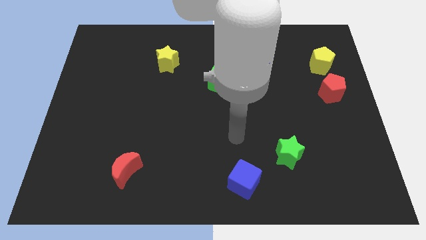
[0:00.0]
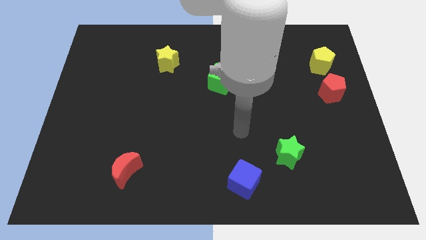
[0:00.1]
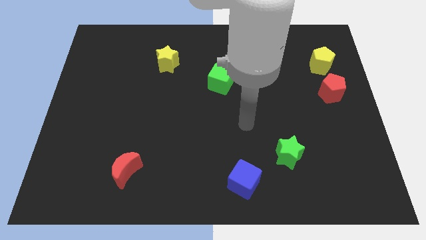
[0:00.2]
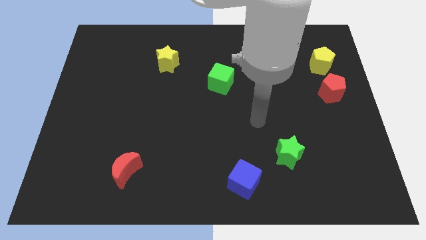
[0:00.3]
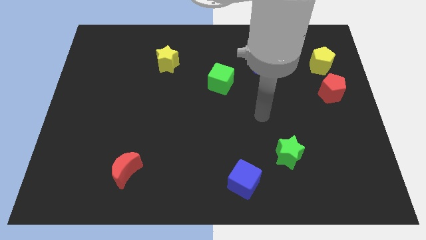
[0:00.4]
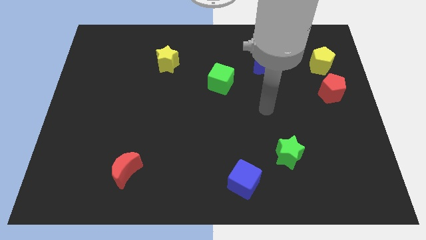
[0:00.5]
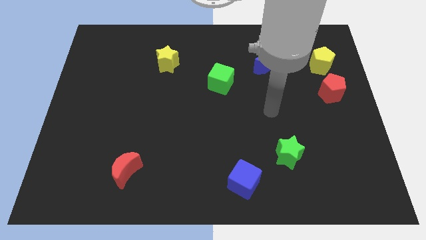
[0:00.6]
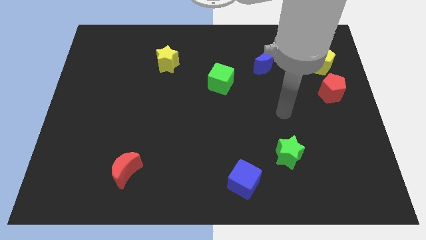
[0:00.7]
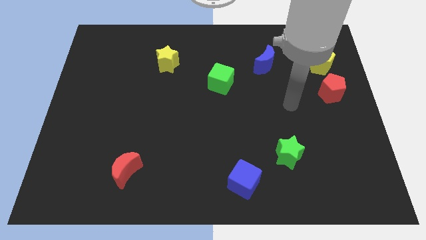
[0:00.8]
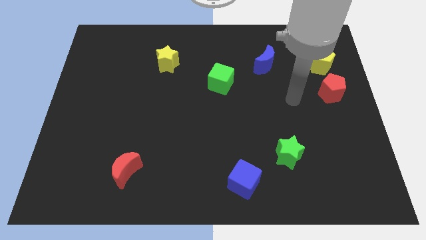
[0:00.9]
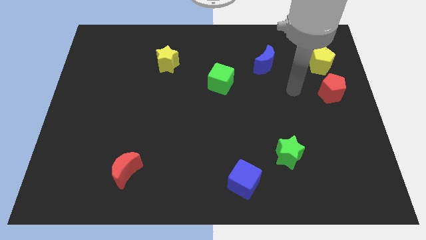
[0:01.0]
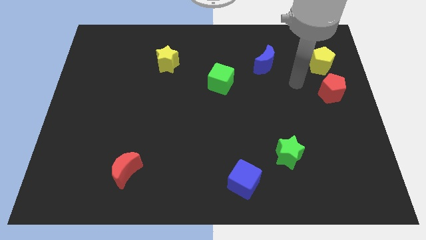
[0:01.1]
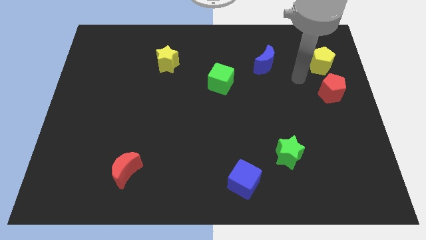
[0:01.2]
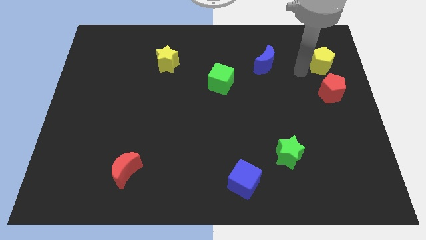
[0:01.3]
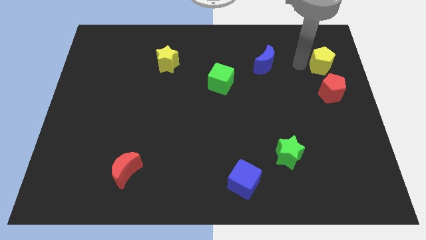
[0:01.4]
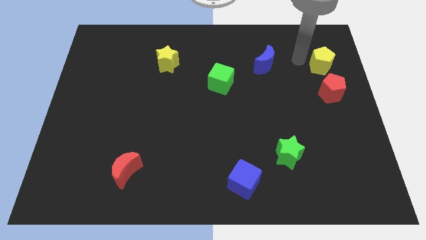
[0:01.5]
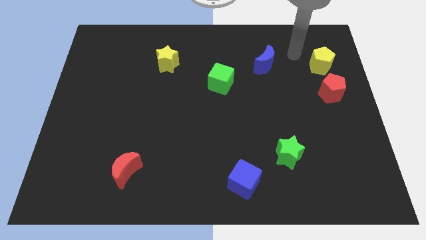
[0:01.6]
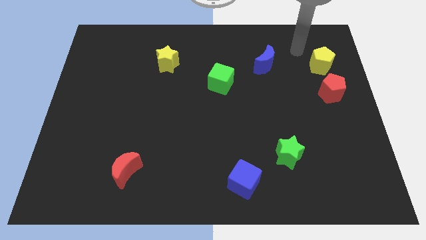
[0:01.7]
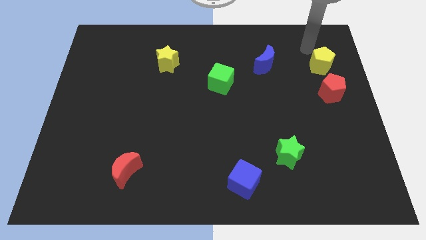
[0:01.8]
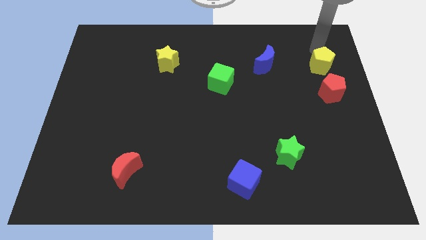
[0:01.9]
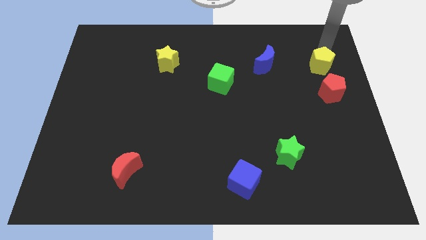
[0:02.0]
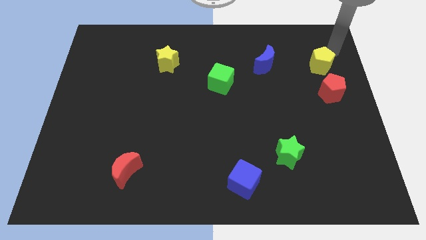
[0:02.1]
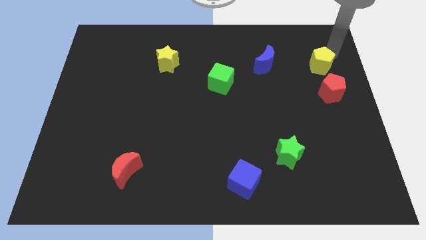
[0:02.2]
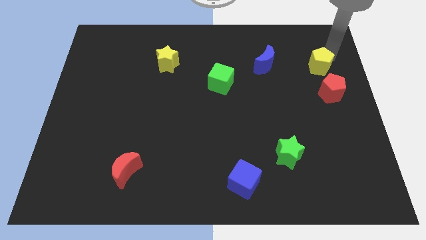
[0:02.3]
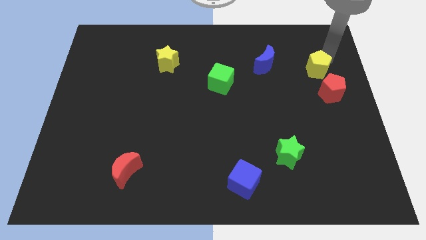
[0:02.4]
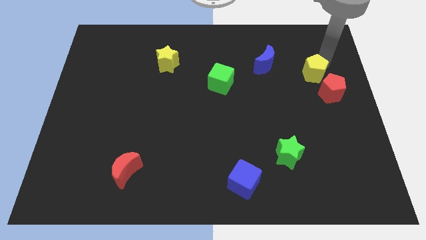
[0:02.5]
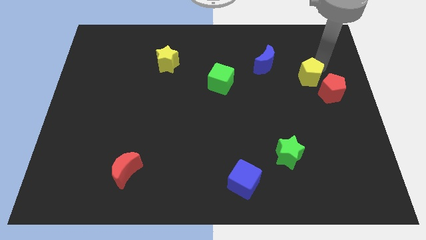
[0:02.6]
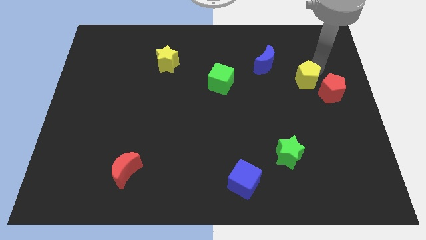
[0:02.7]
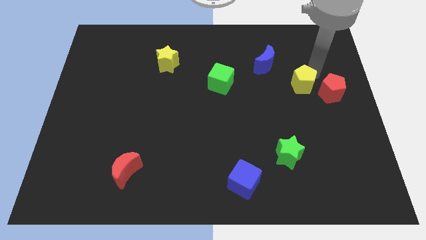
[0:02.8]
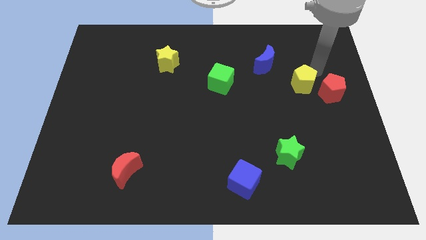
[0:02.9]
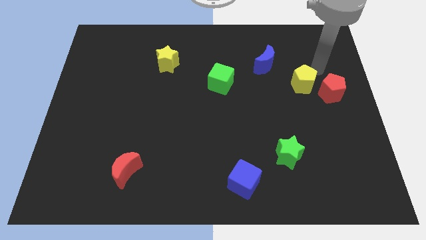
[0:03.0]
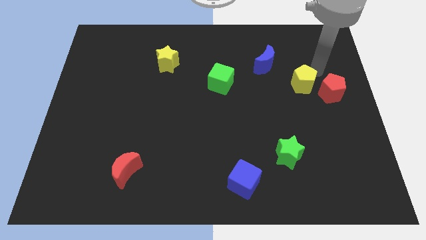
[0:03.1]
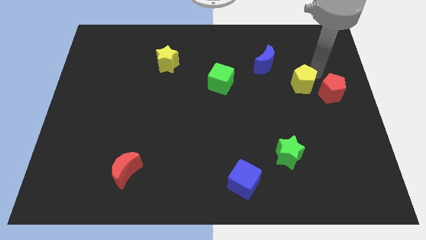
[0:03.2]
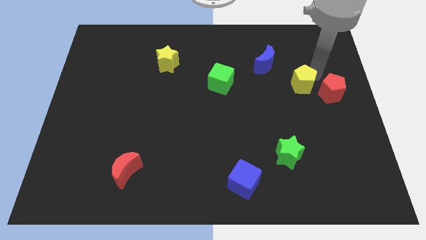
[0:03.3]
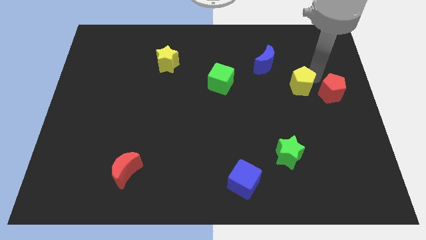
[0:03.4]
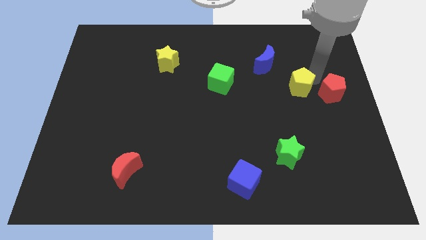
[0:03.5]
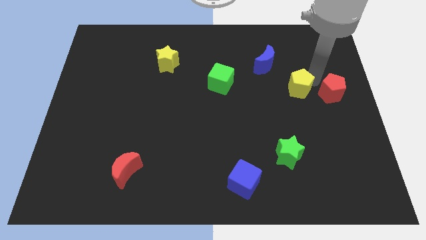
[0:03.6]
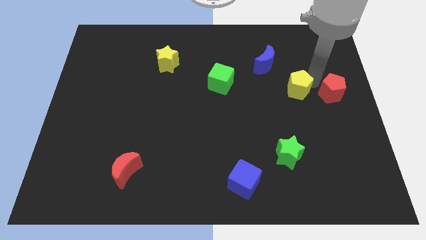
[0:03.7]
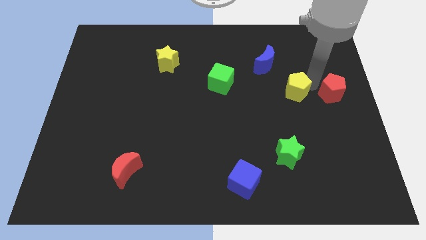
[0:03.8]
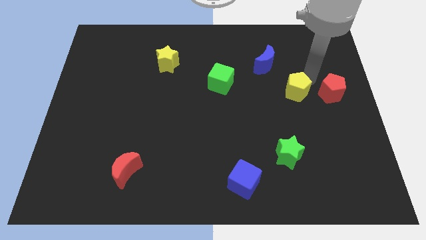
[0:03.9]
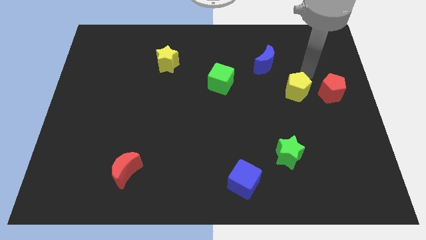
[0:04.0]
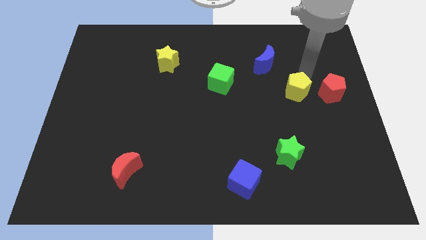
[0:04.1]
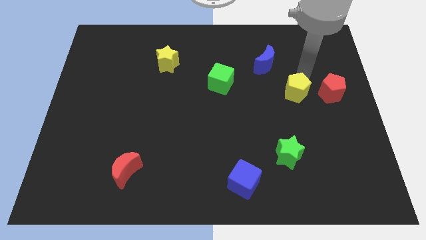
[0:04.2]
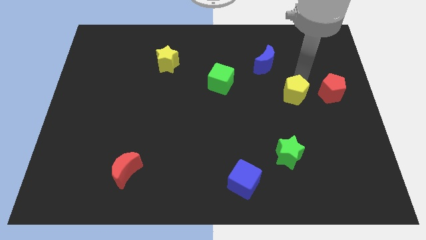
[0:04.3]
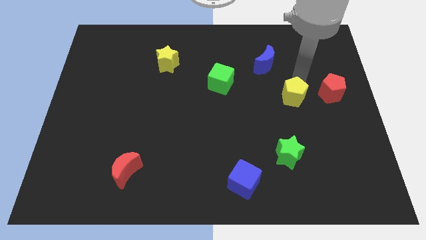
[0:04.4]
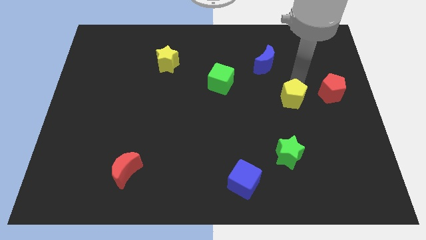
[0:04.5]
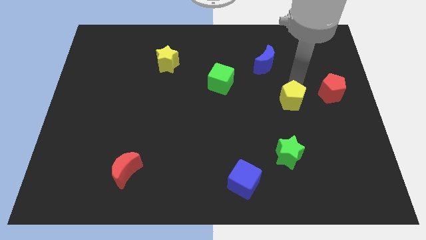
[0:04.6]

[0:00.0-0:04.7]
put the yellow pentagon to the top of the green star

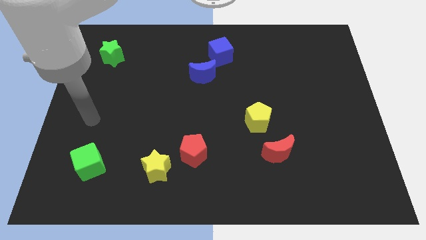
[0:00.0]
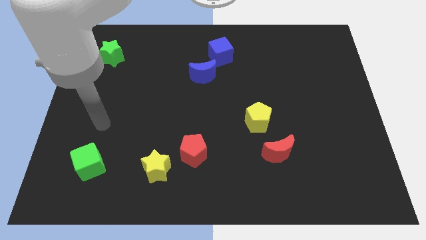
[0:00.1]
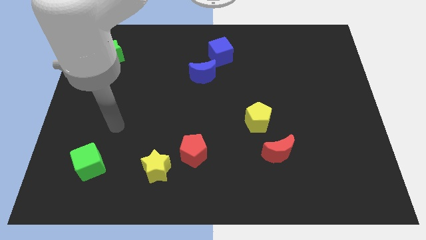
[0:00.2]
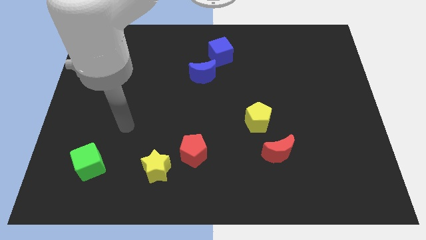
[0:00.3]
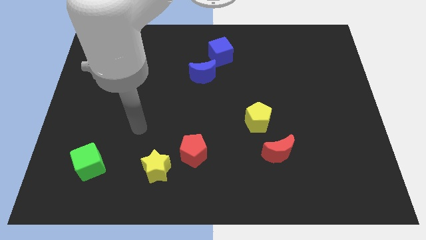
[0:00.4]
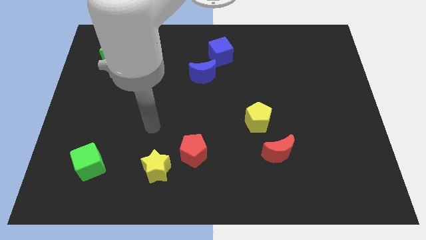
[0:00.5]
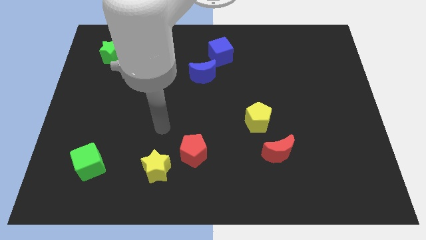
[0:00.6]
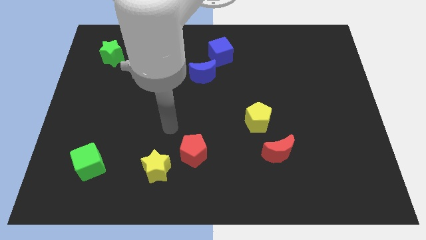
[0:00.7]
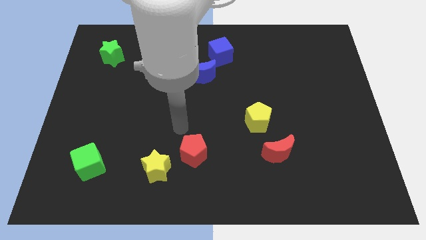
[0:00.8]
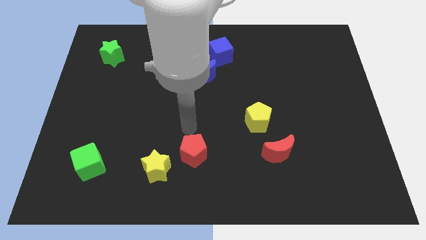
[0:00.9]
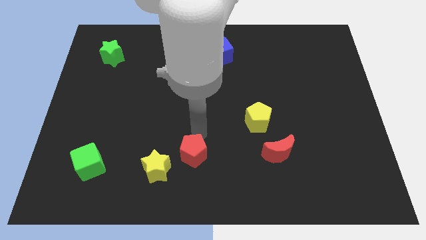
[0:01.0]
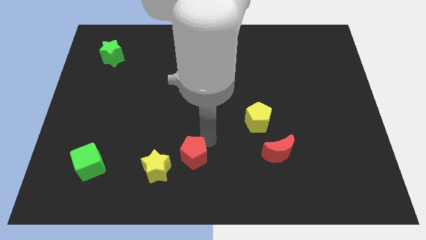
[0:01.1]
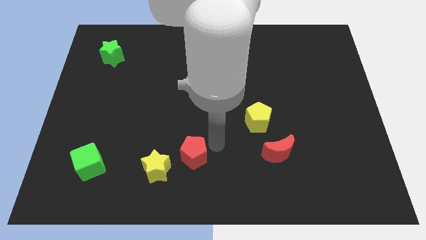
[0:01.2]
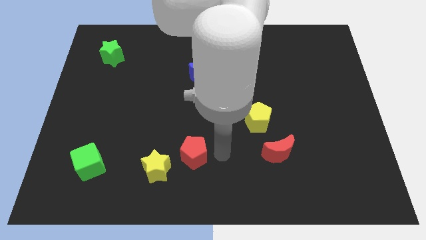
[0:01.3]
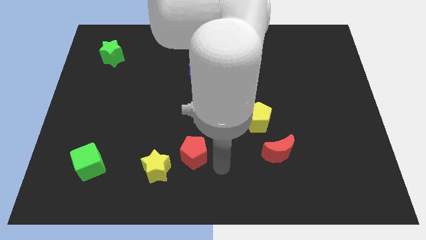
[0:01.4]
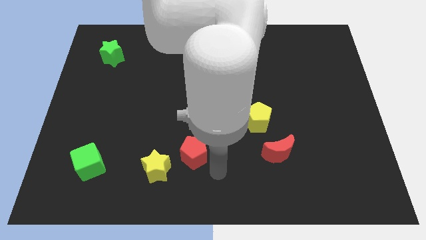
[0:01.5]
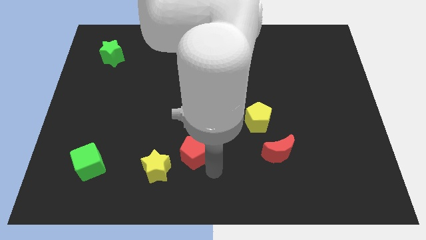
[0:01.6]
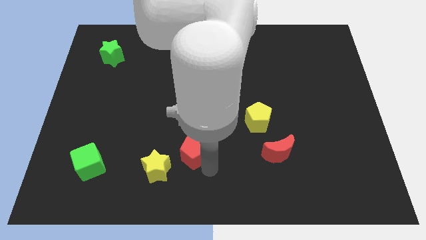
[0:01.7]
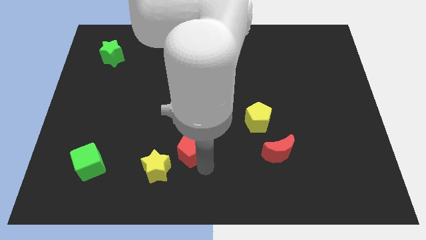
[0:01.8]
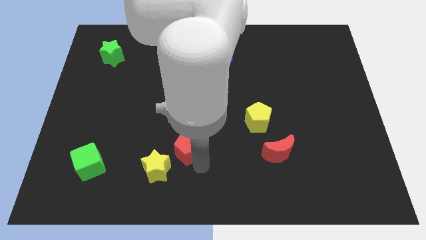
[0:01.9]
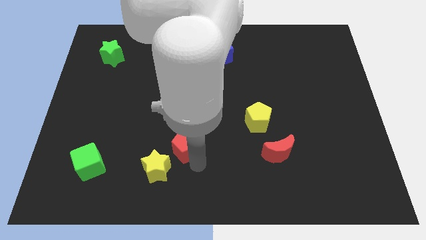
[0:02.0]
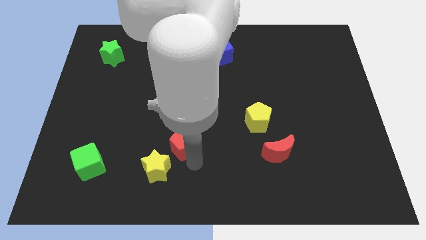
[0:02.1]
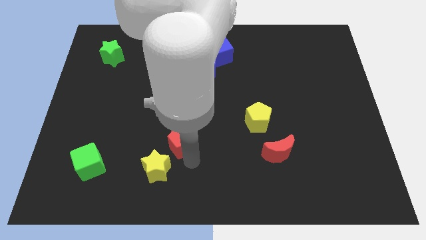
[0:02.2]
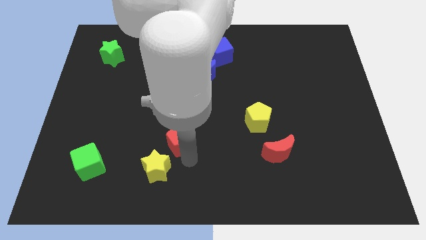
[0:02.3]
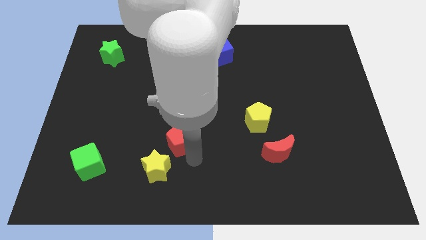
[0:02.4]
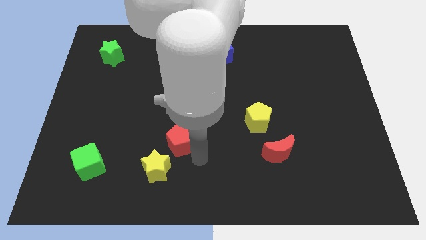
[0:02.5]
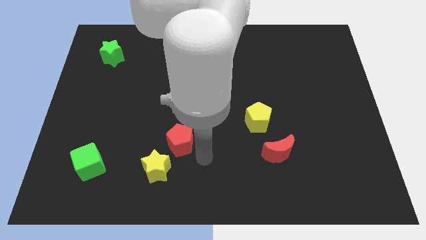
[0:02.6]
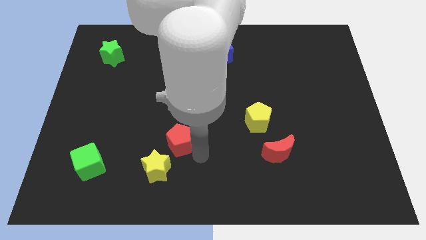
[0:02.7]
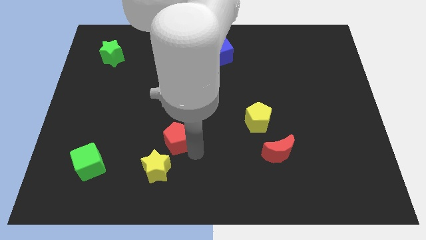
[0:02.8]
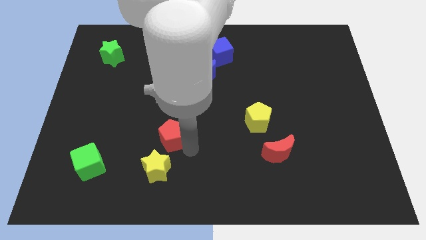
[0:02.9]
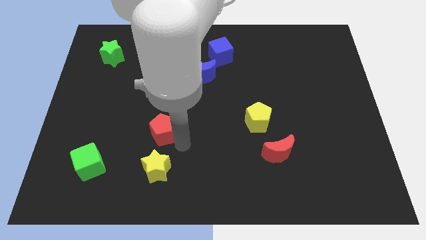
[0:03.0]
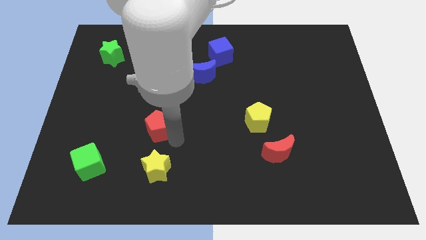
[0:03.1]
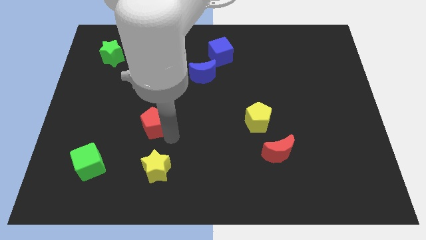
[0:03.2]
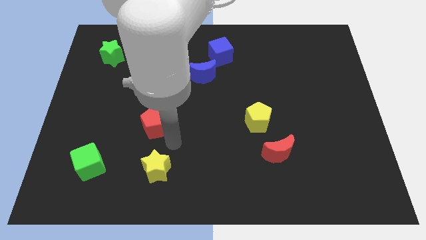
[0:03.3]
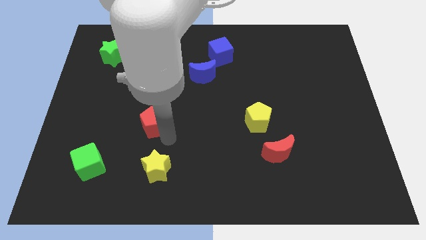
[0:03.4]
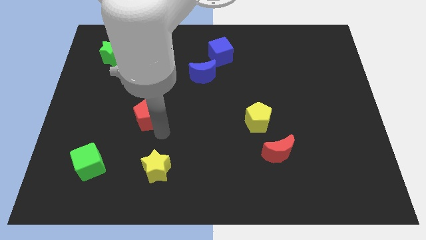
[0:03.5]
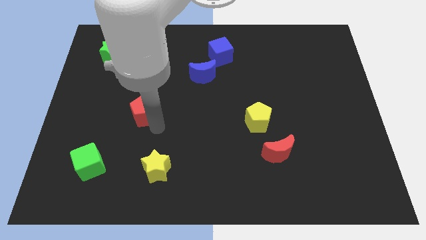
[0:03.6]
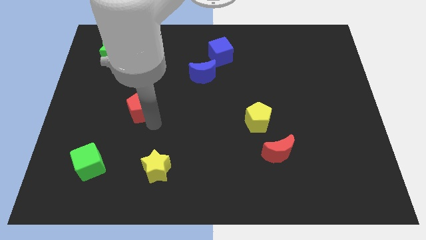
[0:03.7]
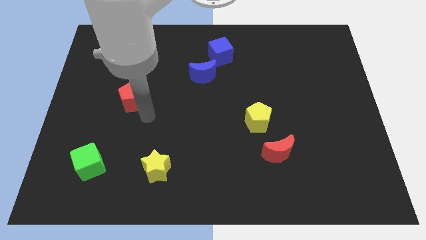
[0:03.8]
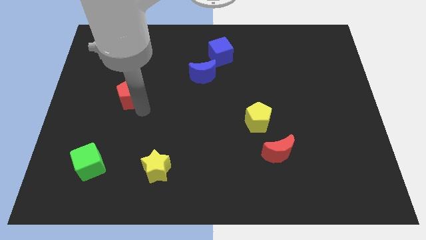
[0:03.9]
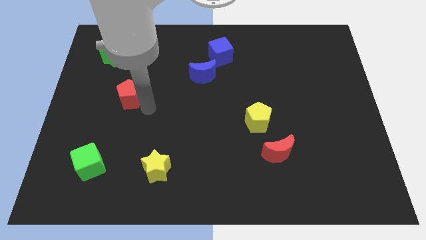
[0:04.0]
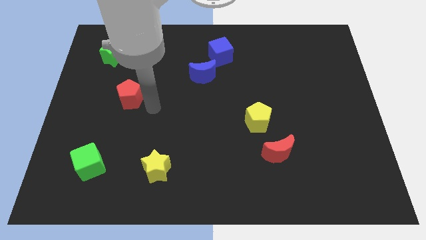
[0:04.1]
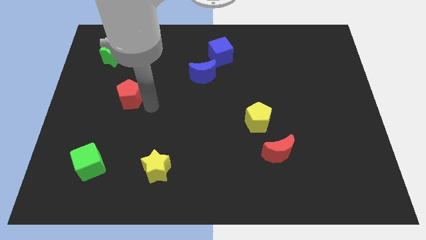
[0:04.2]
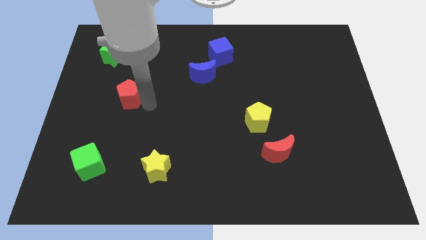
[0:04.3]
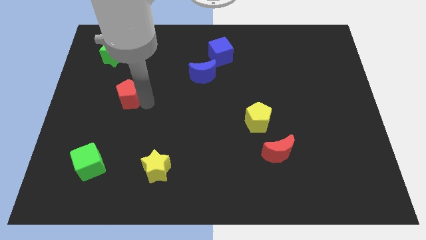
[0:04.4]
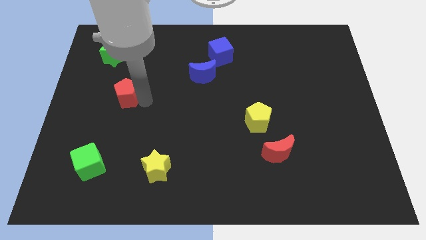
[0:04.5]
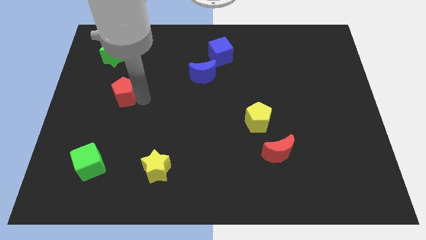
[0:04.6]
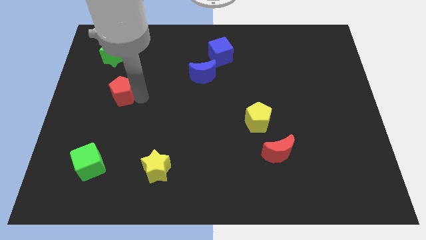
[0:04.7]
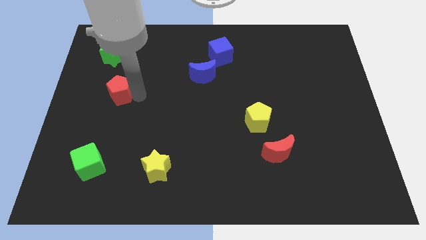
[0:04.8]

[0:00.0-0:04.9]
slide the red pentagon to the bottom of the green star
